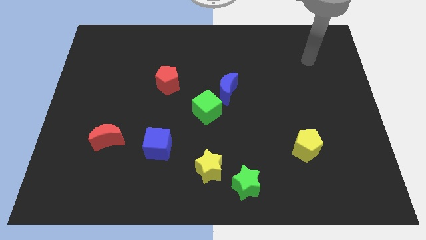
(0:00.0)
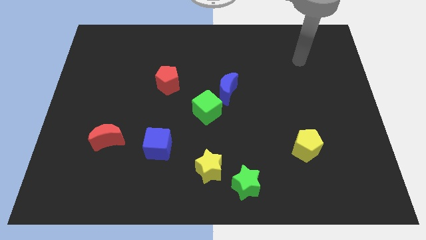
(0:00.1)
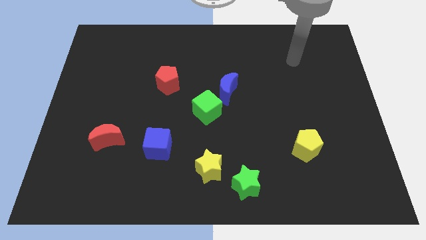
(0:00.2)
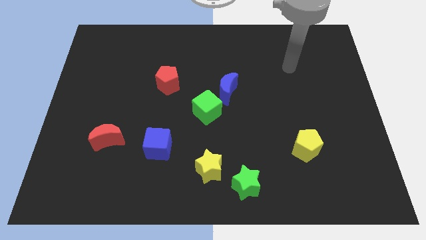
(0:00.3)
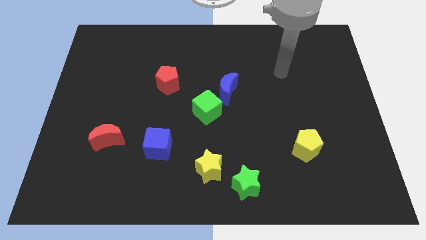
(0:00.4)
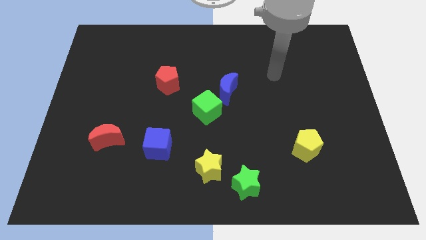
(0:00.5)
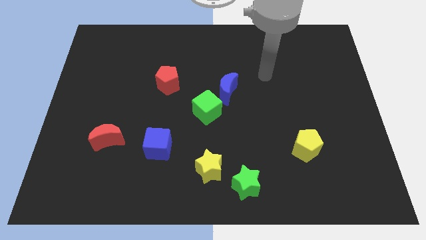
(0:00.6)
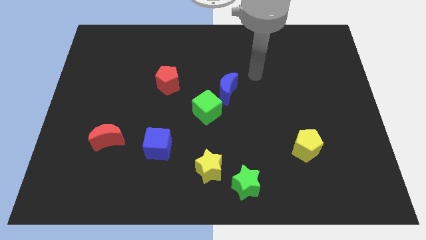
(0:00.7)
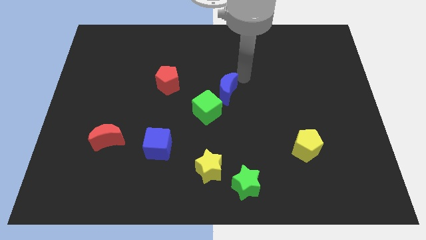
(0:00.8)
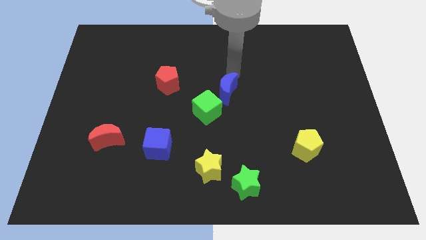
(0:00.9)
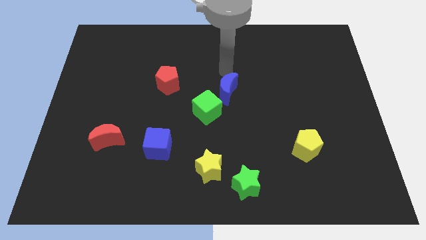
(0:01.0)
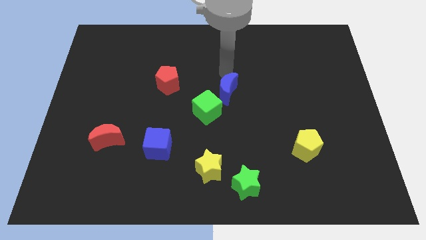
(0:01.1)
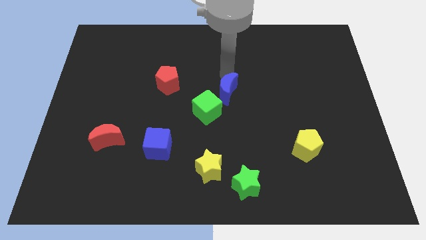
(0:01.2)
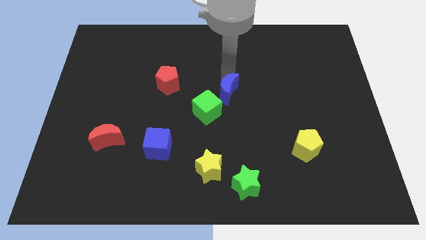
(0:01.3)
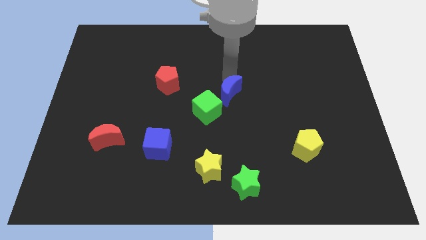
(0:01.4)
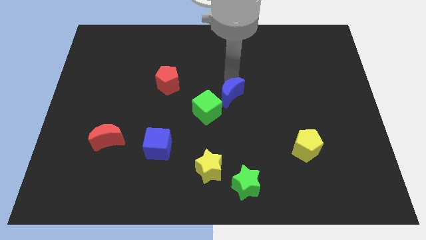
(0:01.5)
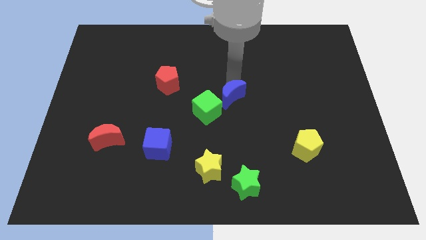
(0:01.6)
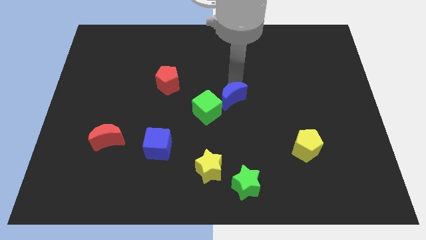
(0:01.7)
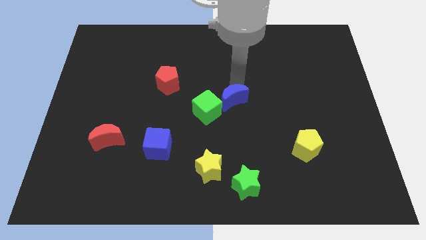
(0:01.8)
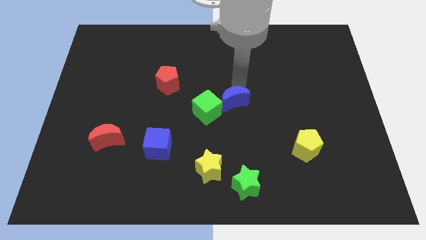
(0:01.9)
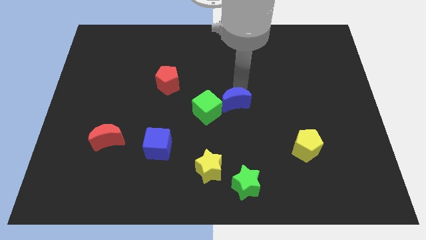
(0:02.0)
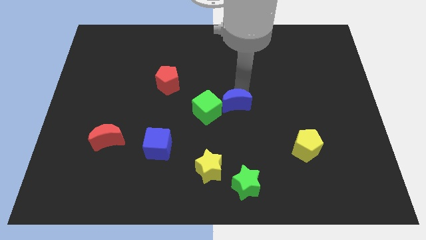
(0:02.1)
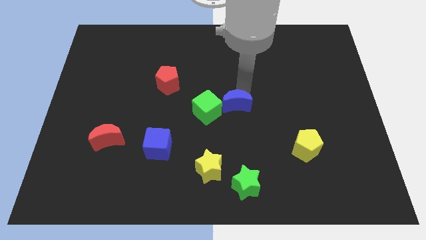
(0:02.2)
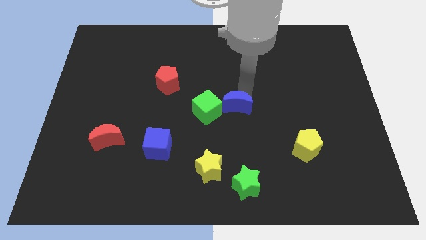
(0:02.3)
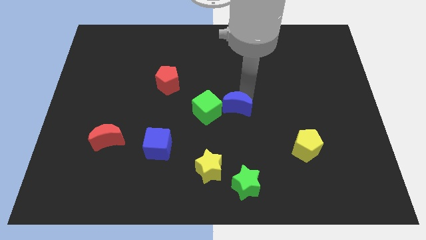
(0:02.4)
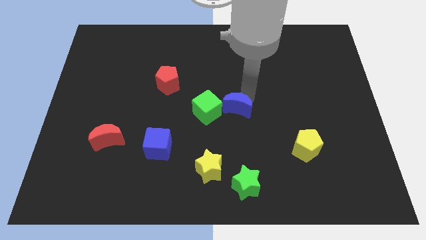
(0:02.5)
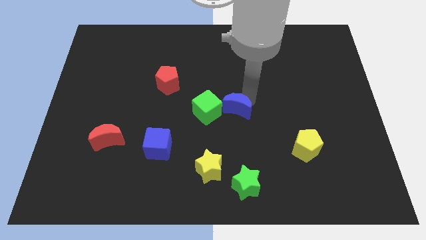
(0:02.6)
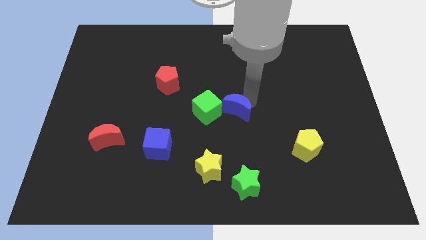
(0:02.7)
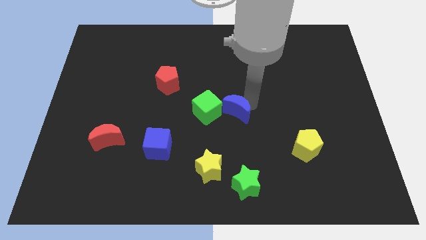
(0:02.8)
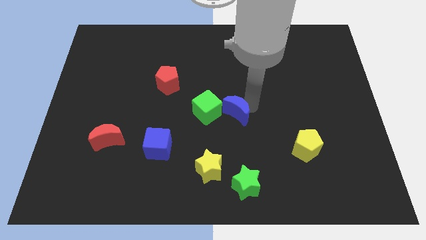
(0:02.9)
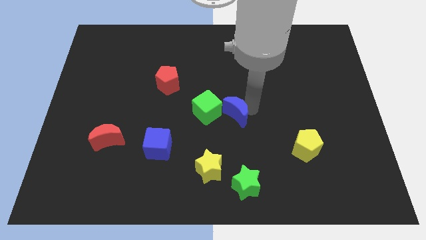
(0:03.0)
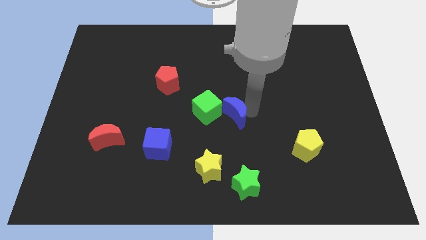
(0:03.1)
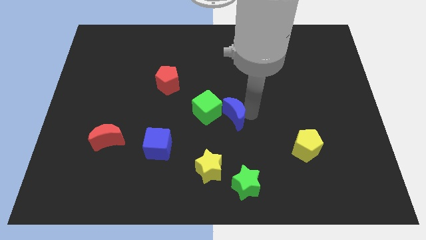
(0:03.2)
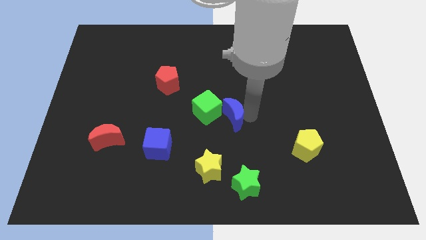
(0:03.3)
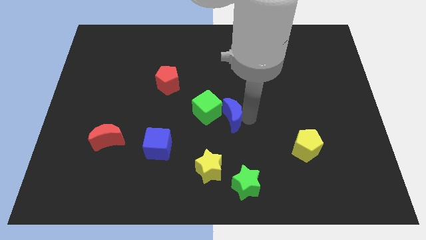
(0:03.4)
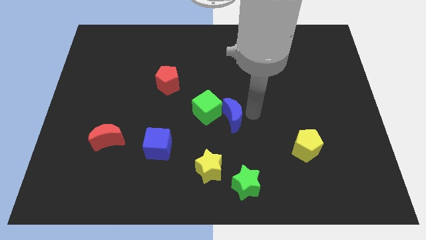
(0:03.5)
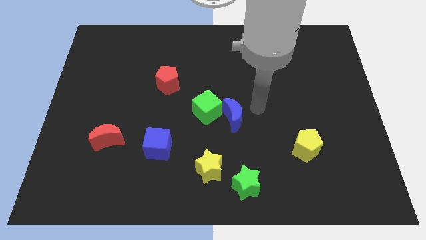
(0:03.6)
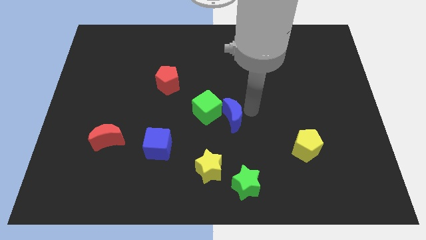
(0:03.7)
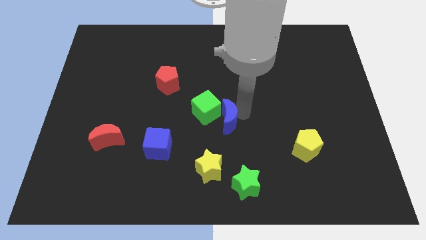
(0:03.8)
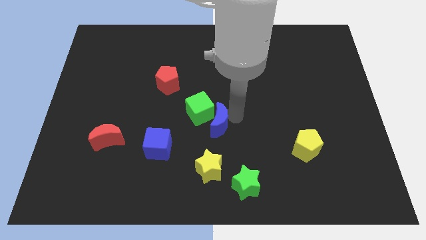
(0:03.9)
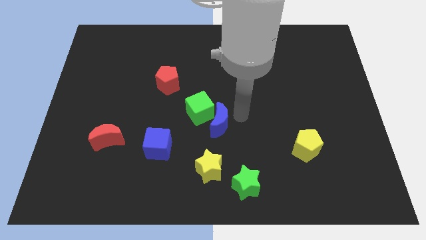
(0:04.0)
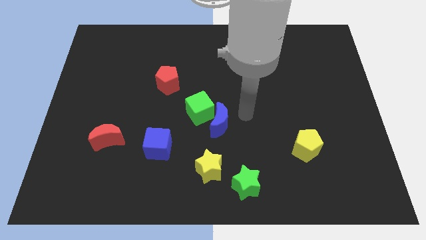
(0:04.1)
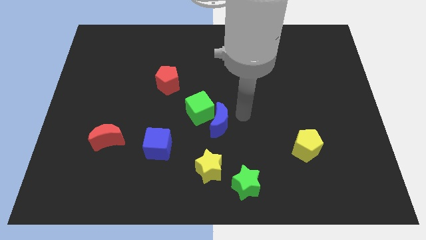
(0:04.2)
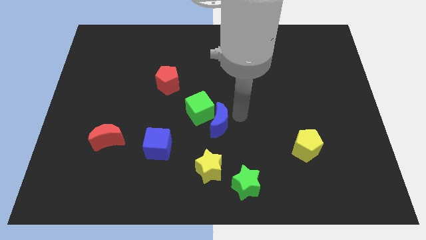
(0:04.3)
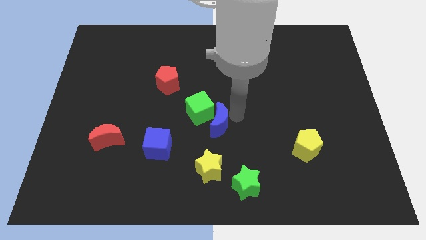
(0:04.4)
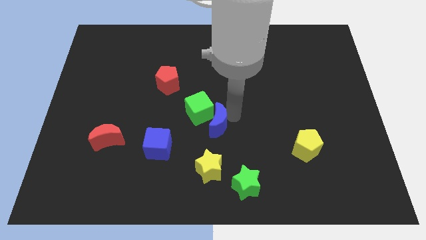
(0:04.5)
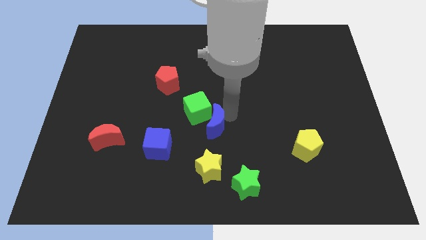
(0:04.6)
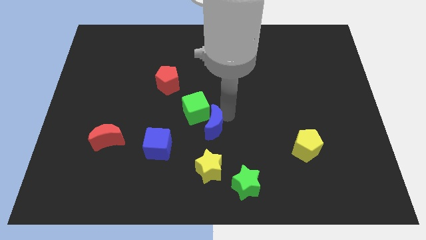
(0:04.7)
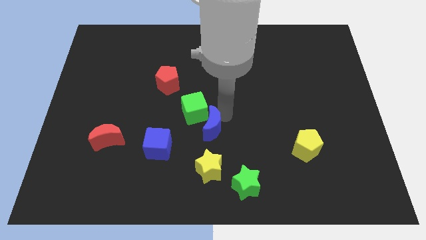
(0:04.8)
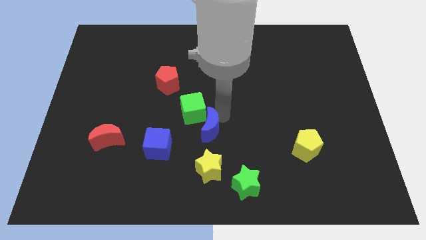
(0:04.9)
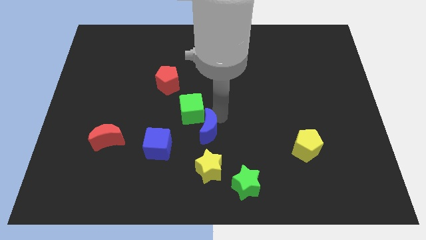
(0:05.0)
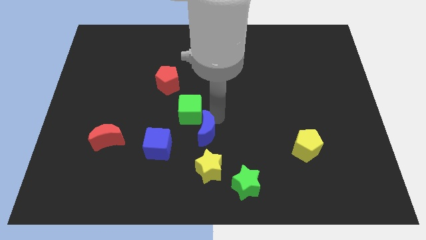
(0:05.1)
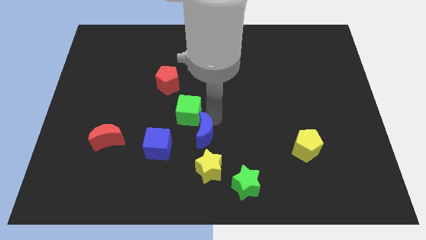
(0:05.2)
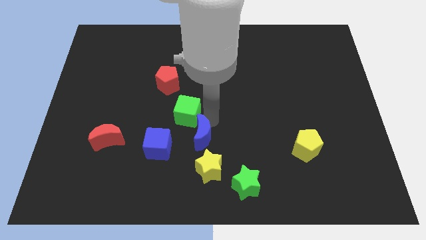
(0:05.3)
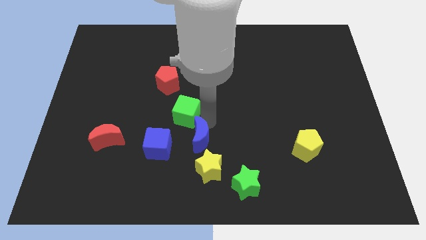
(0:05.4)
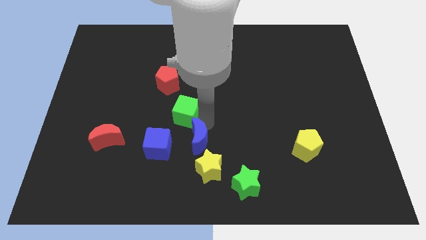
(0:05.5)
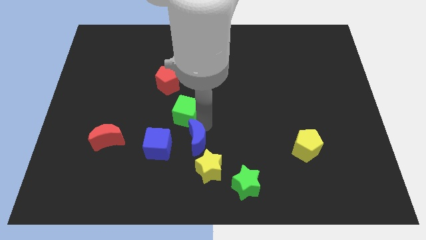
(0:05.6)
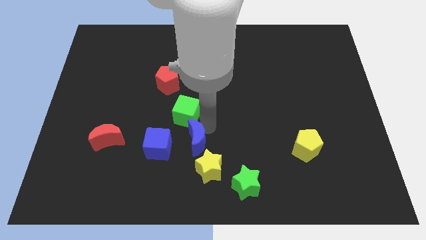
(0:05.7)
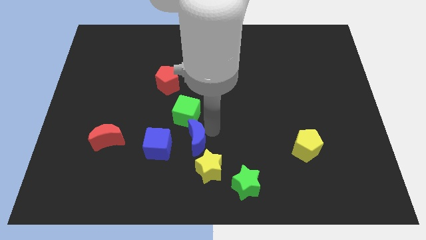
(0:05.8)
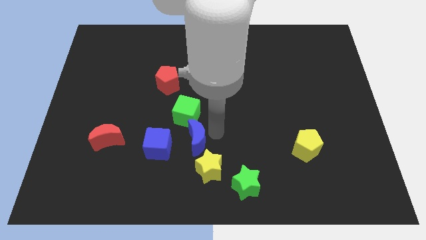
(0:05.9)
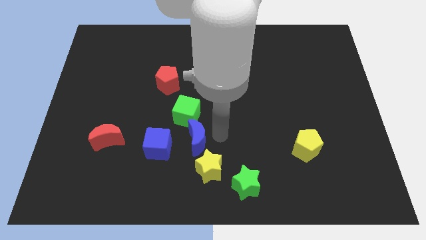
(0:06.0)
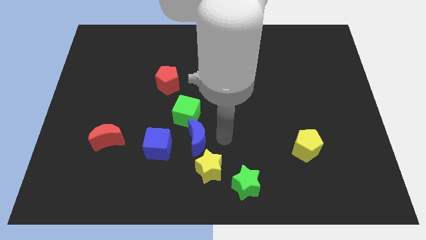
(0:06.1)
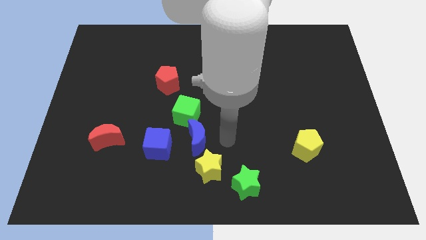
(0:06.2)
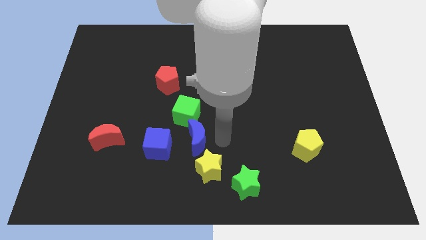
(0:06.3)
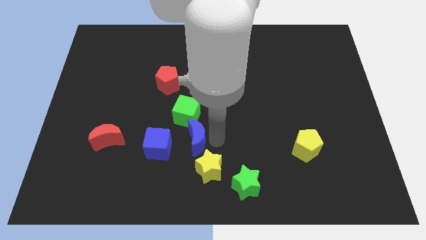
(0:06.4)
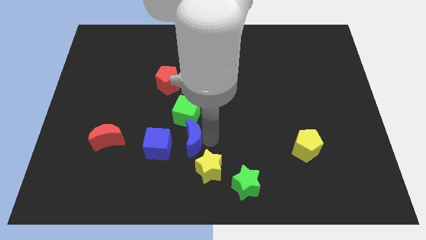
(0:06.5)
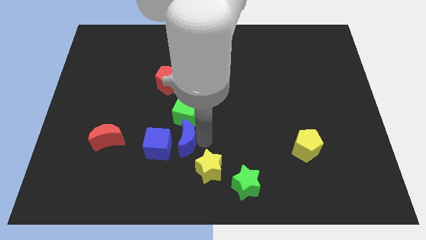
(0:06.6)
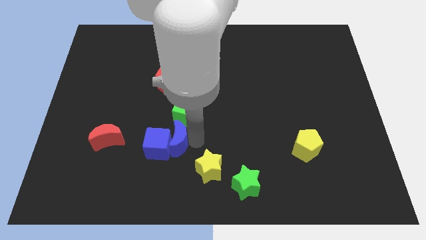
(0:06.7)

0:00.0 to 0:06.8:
slide the blue moon to the right side of the red moon

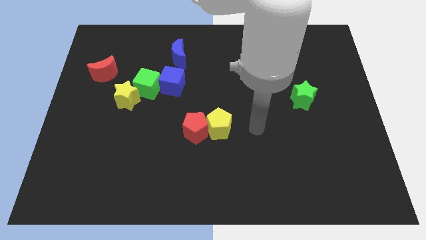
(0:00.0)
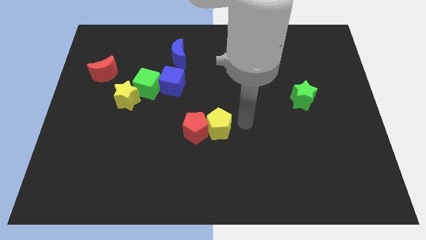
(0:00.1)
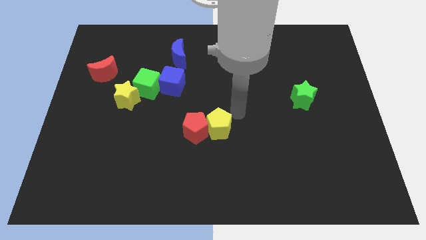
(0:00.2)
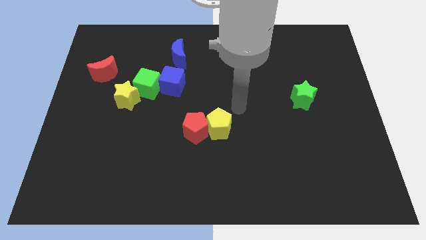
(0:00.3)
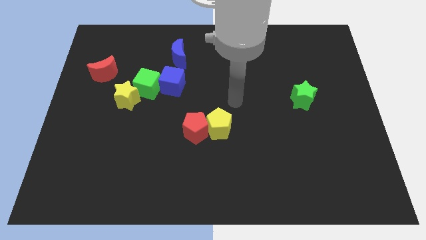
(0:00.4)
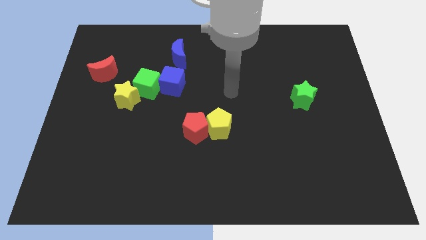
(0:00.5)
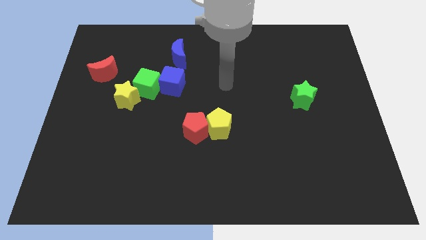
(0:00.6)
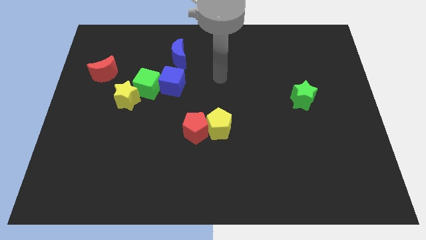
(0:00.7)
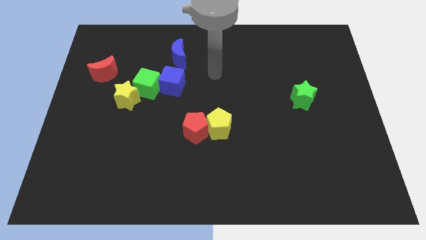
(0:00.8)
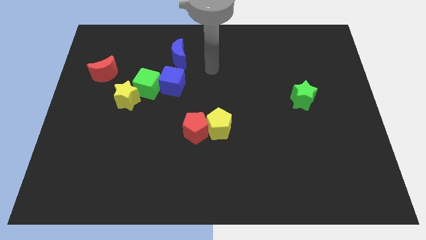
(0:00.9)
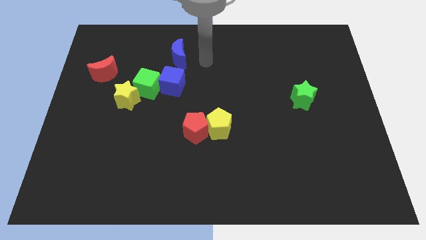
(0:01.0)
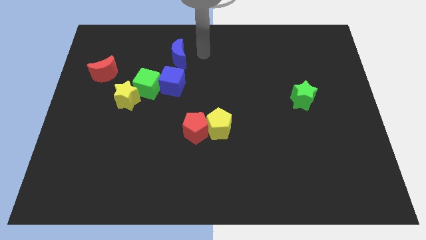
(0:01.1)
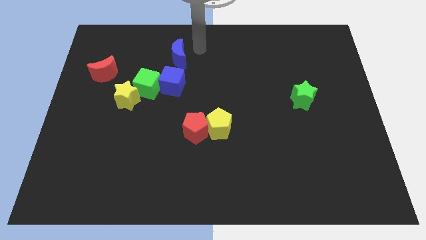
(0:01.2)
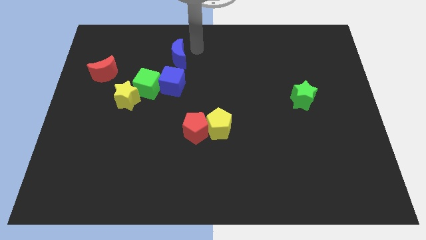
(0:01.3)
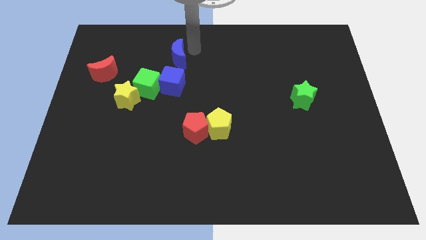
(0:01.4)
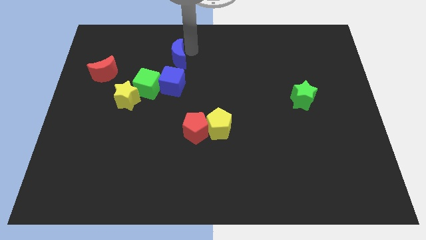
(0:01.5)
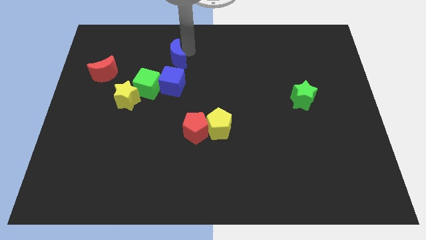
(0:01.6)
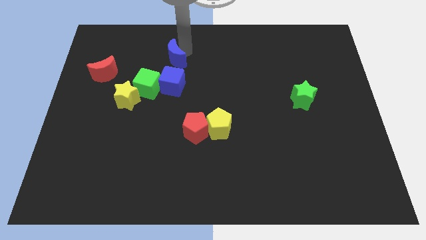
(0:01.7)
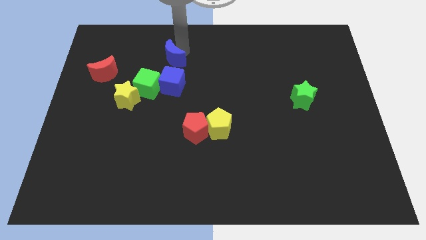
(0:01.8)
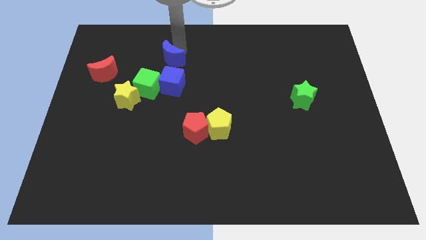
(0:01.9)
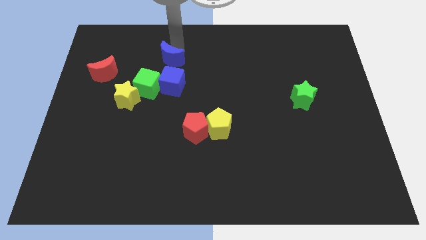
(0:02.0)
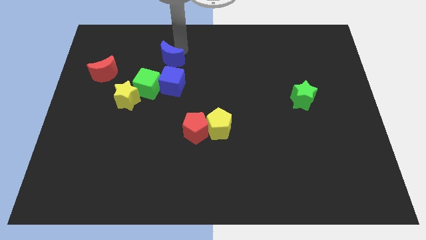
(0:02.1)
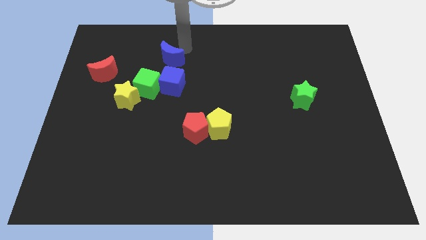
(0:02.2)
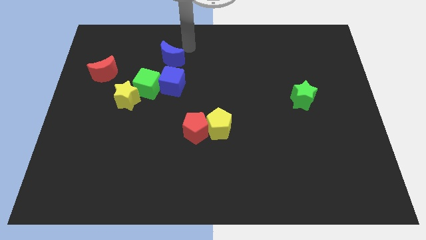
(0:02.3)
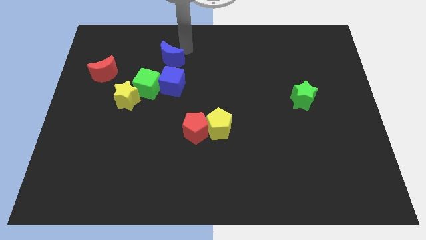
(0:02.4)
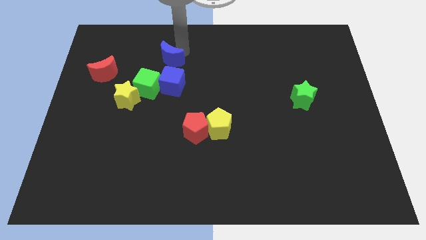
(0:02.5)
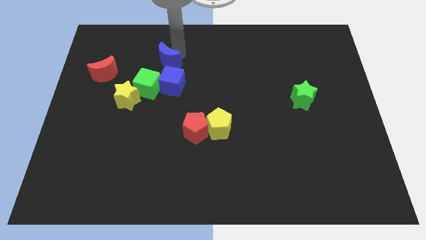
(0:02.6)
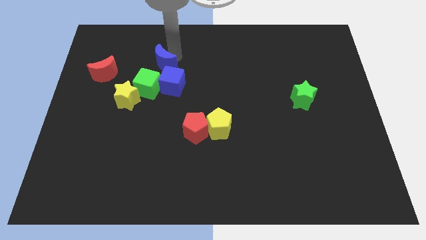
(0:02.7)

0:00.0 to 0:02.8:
slide the blue moon to the right of the red moon
